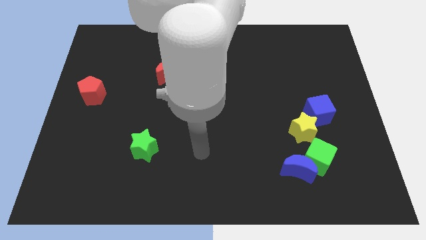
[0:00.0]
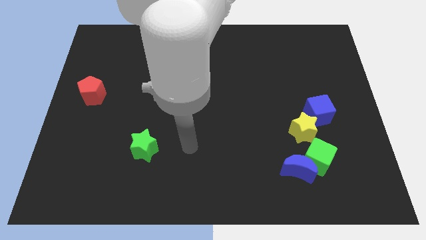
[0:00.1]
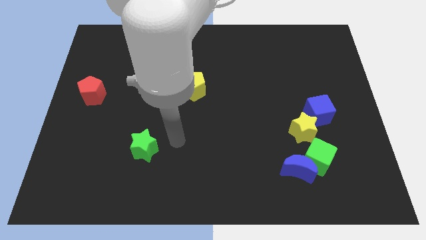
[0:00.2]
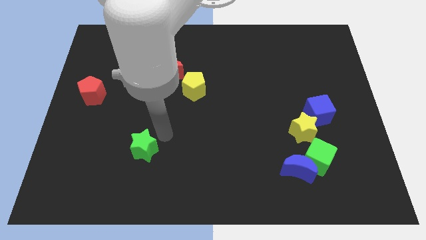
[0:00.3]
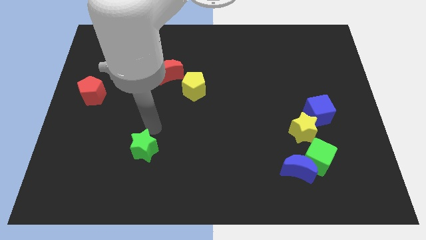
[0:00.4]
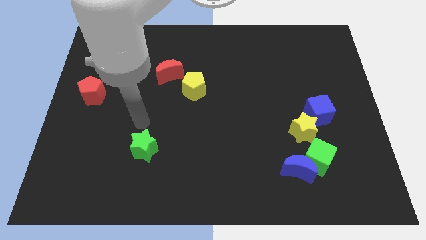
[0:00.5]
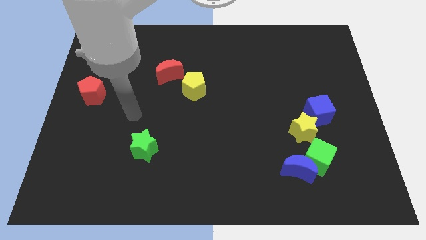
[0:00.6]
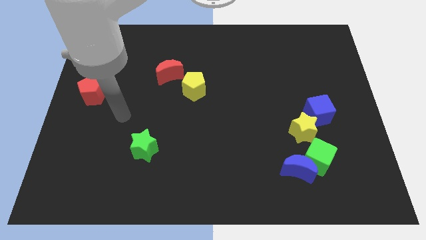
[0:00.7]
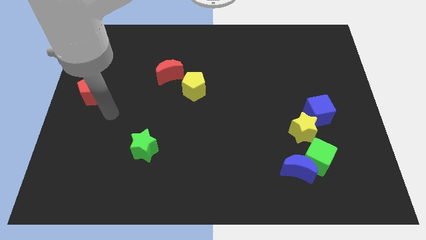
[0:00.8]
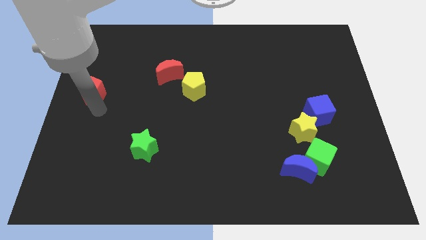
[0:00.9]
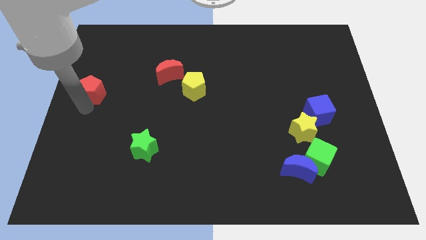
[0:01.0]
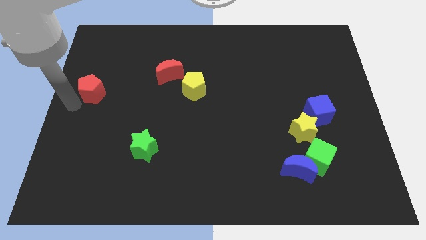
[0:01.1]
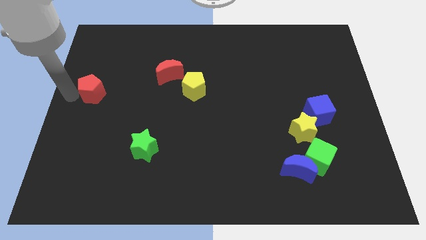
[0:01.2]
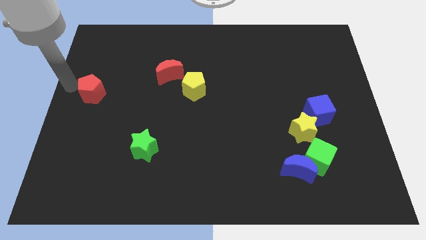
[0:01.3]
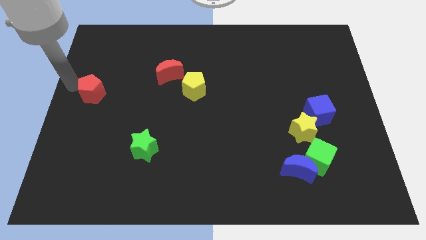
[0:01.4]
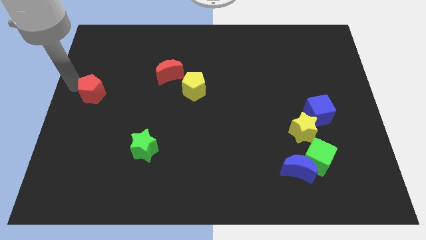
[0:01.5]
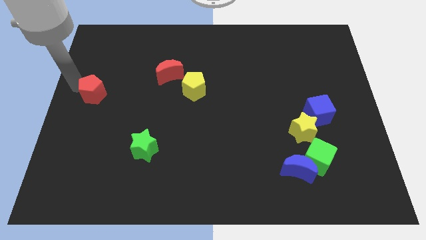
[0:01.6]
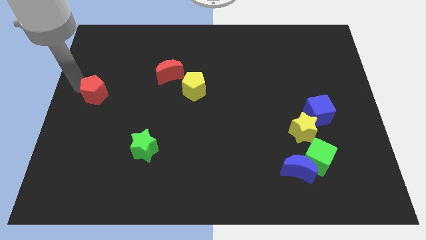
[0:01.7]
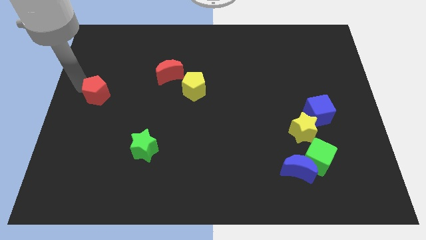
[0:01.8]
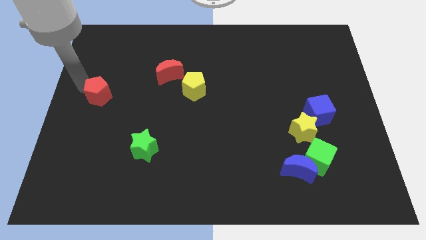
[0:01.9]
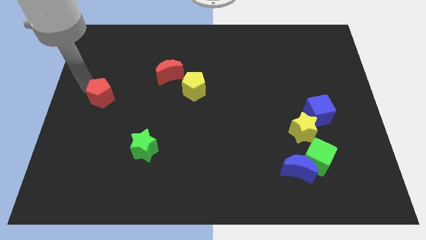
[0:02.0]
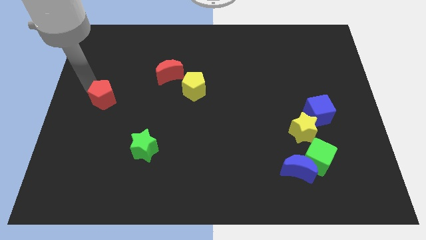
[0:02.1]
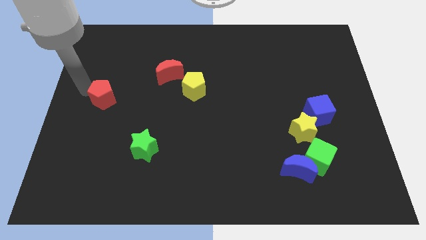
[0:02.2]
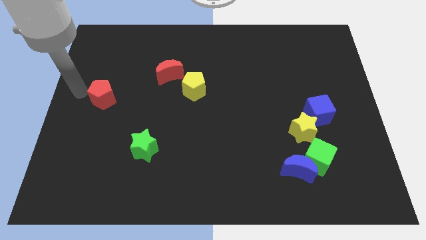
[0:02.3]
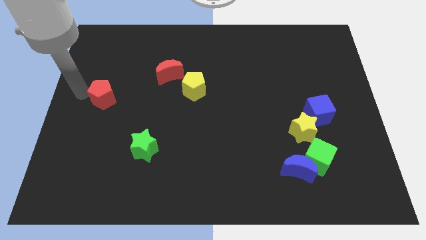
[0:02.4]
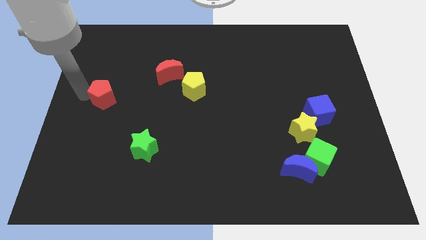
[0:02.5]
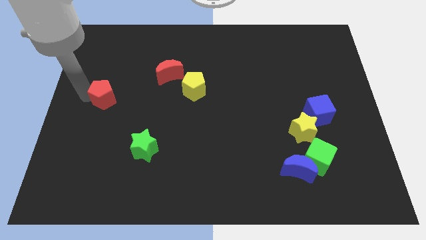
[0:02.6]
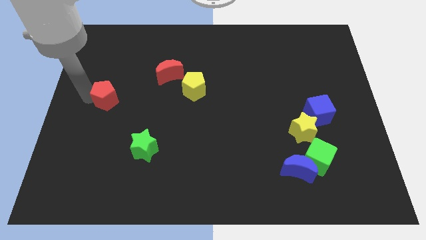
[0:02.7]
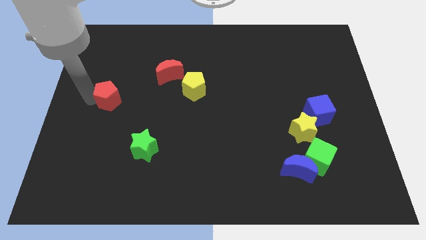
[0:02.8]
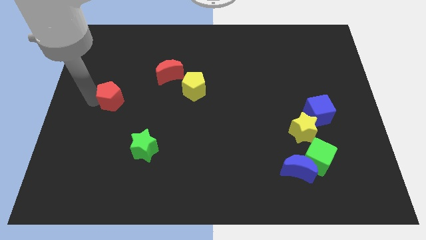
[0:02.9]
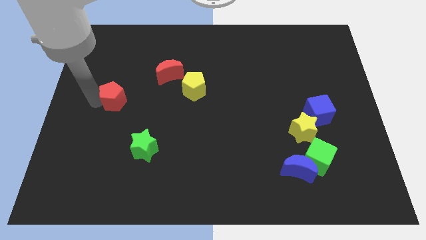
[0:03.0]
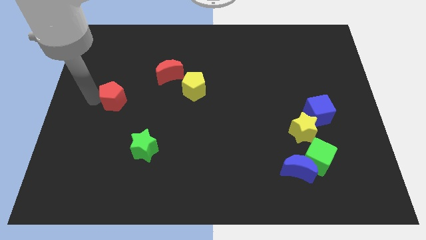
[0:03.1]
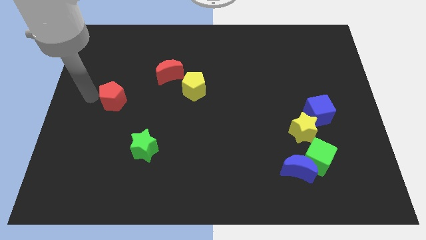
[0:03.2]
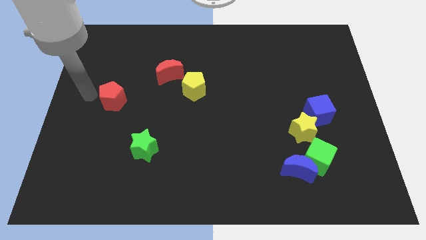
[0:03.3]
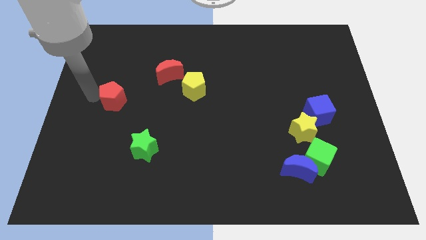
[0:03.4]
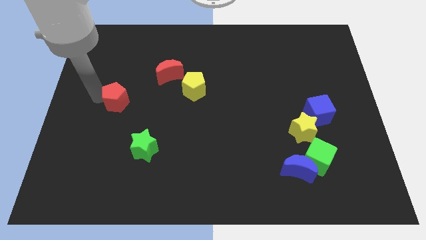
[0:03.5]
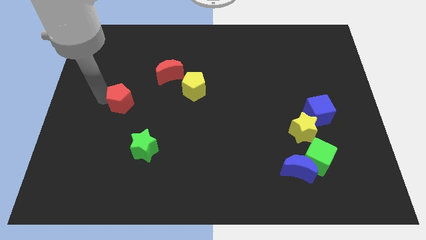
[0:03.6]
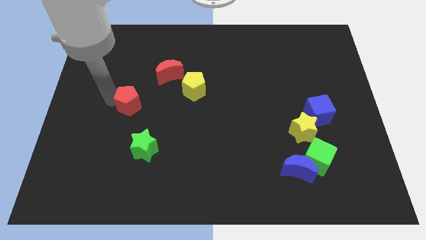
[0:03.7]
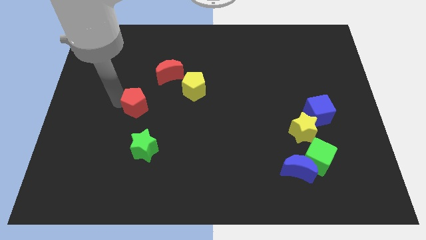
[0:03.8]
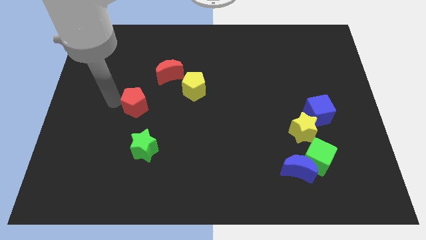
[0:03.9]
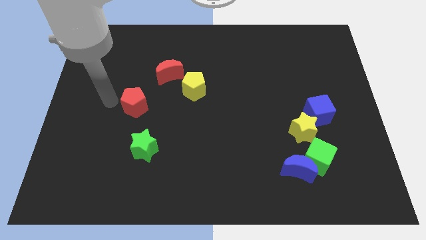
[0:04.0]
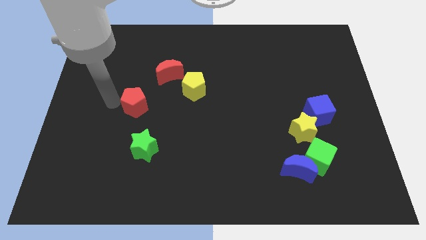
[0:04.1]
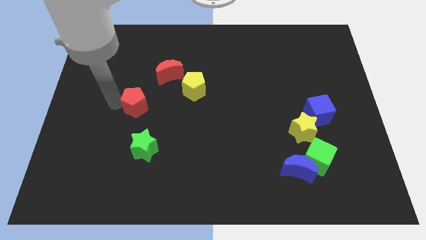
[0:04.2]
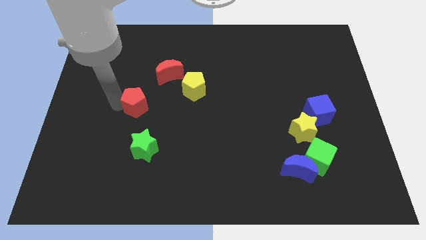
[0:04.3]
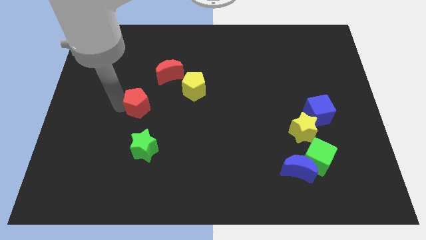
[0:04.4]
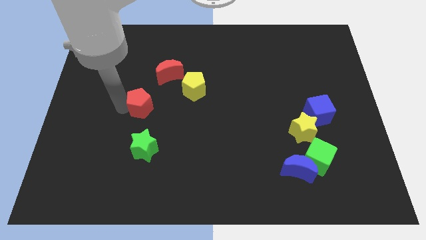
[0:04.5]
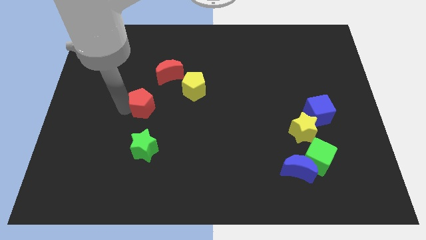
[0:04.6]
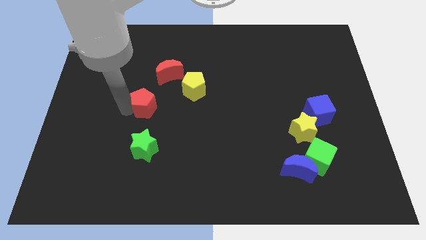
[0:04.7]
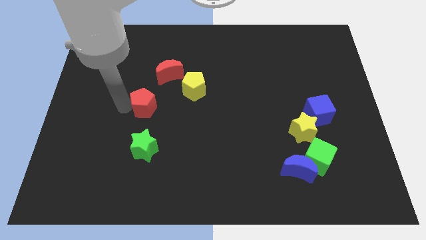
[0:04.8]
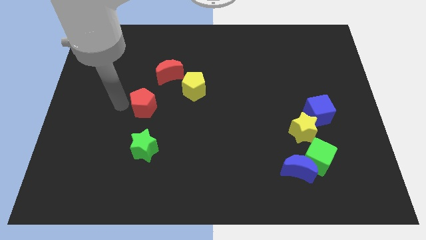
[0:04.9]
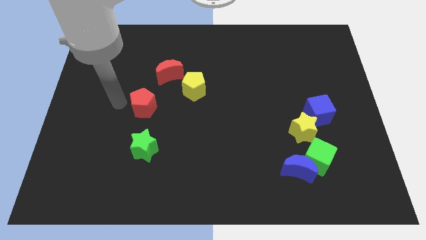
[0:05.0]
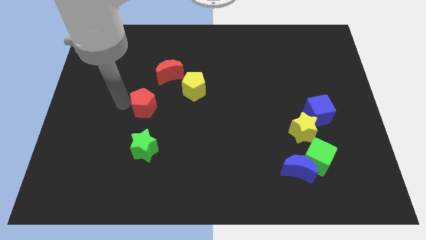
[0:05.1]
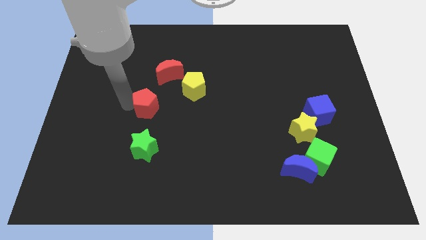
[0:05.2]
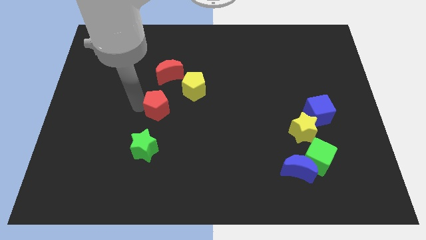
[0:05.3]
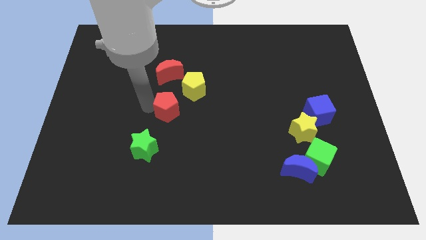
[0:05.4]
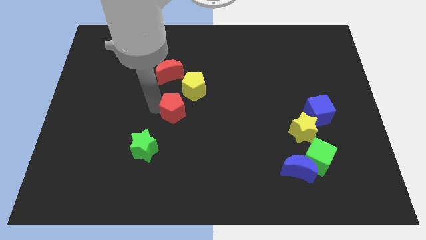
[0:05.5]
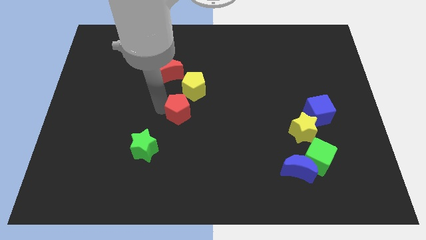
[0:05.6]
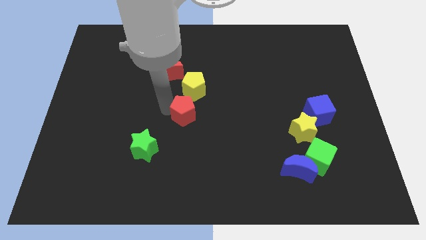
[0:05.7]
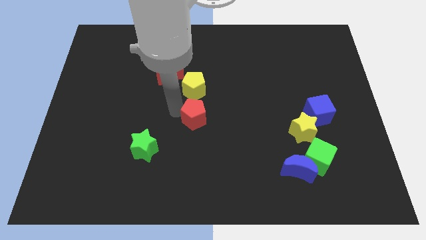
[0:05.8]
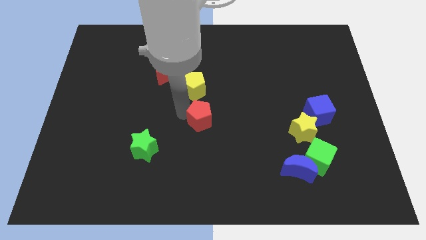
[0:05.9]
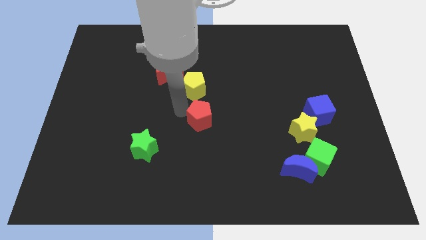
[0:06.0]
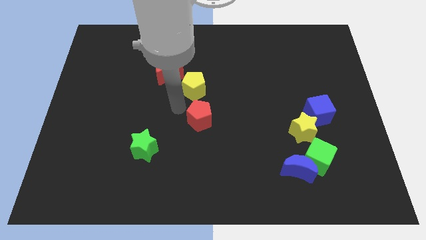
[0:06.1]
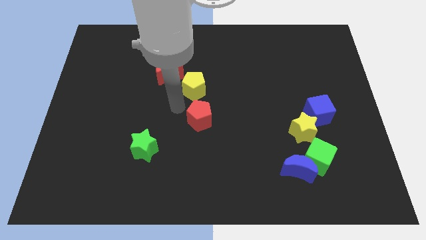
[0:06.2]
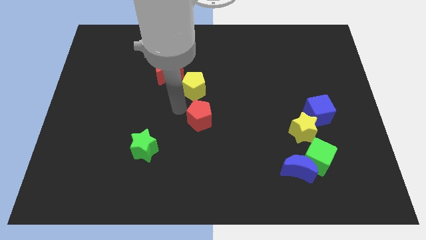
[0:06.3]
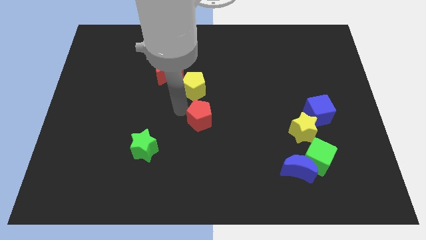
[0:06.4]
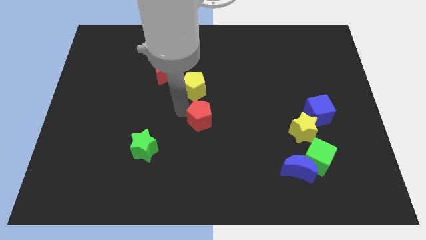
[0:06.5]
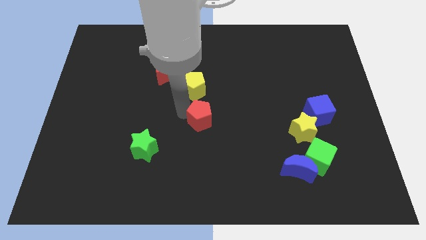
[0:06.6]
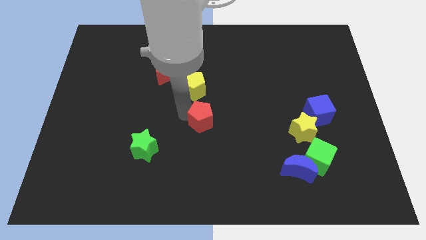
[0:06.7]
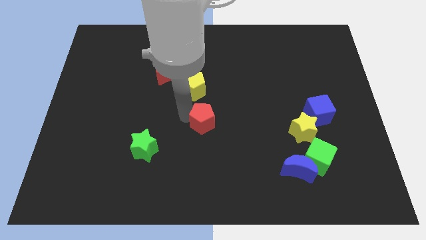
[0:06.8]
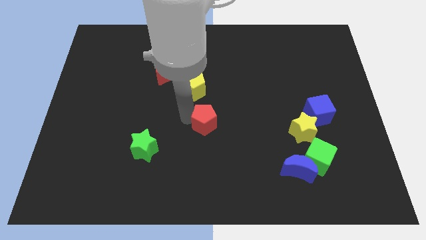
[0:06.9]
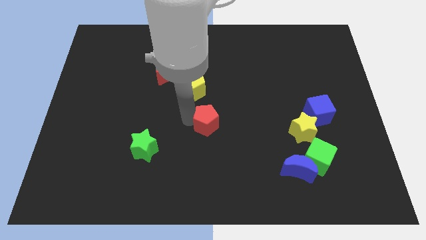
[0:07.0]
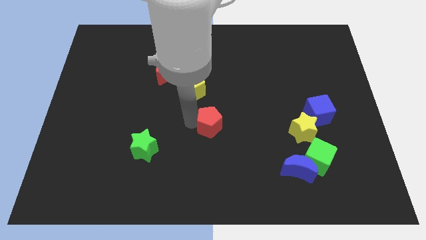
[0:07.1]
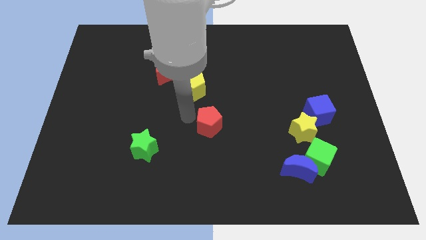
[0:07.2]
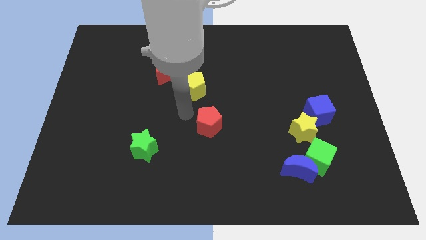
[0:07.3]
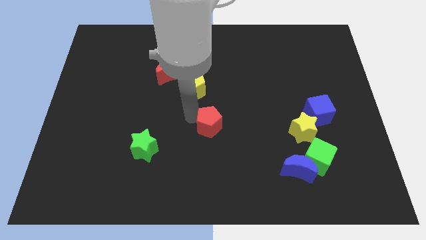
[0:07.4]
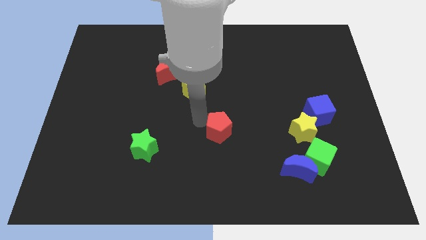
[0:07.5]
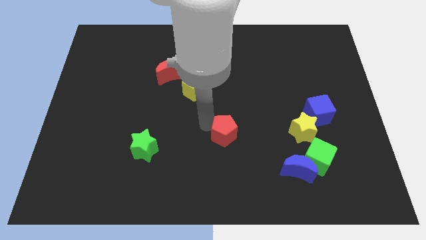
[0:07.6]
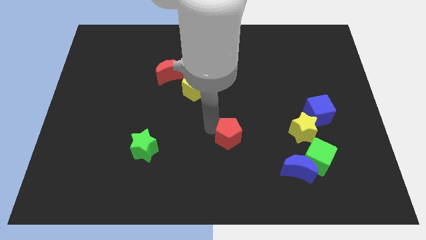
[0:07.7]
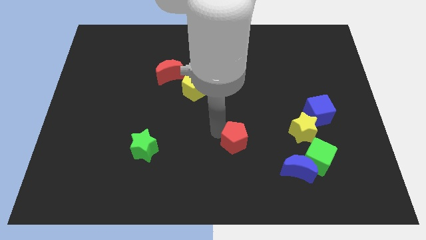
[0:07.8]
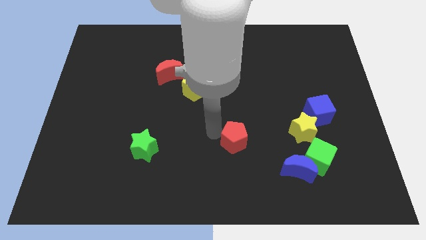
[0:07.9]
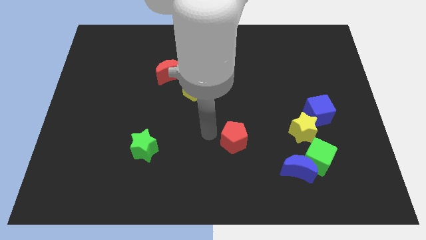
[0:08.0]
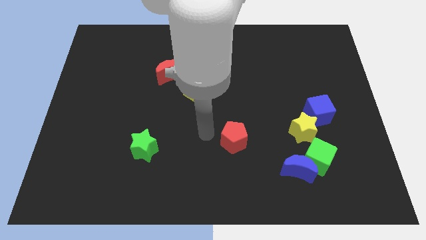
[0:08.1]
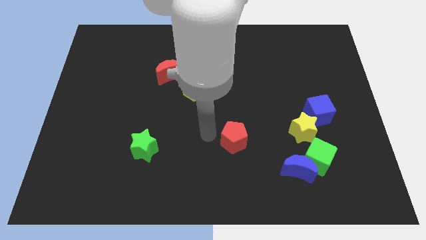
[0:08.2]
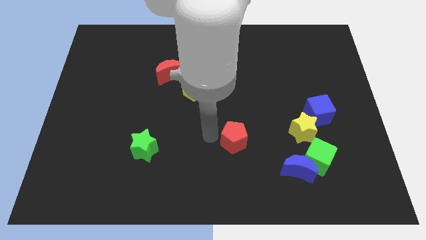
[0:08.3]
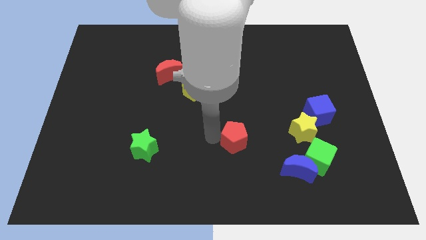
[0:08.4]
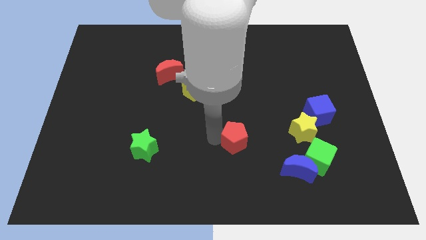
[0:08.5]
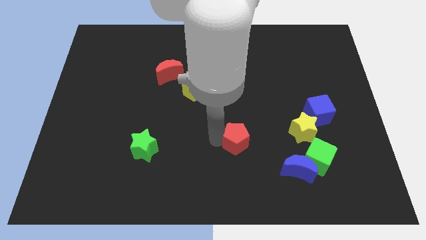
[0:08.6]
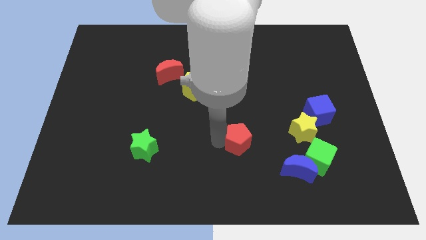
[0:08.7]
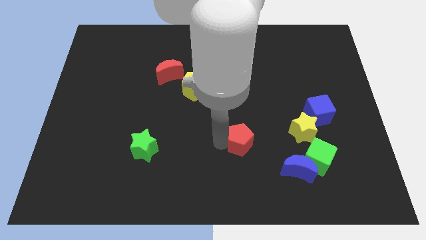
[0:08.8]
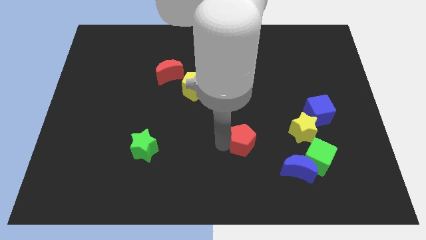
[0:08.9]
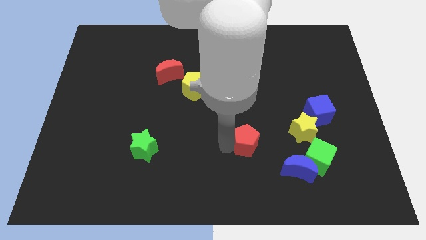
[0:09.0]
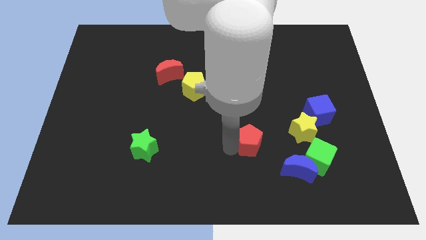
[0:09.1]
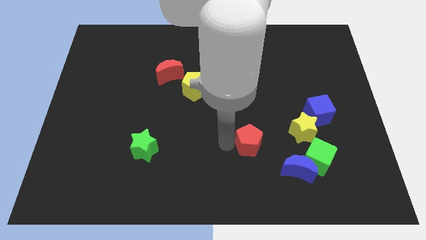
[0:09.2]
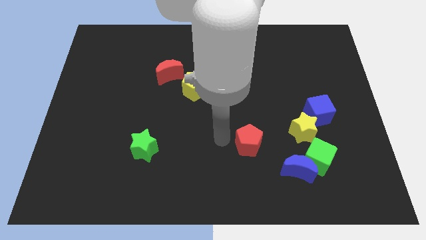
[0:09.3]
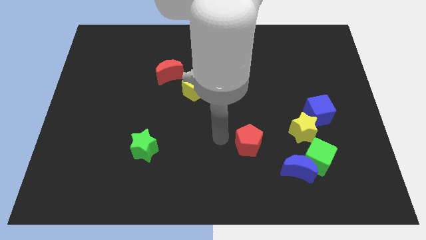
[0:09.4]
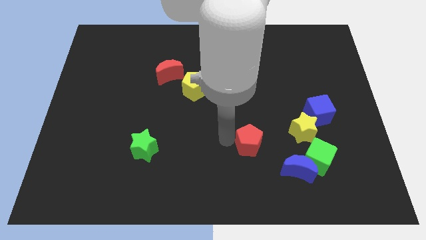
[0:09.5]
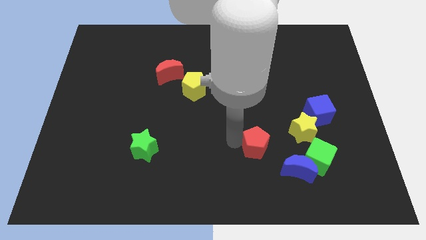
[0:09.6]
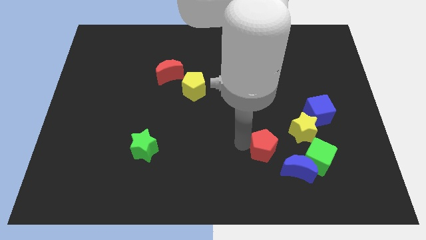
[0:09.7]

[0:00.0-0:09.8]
slide the red pentagon diagonally down and to the left of the yellow star
